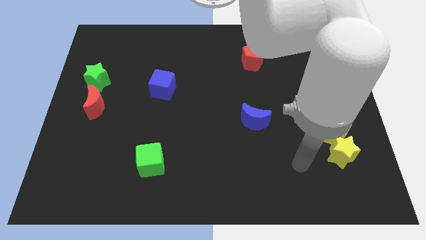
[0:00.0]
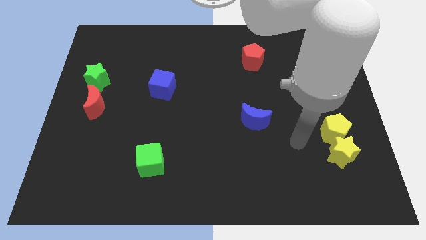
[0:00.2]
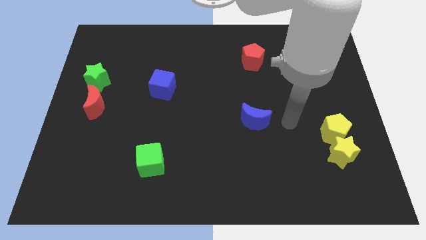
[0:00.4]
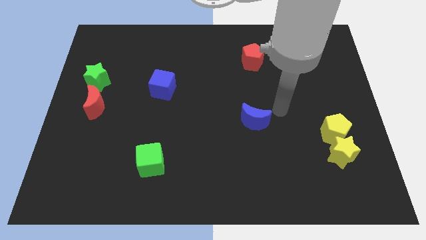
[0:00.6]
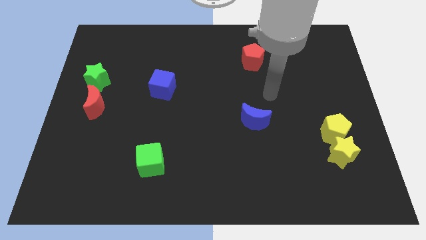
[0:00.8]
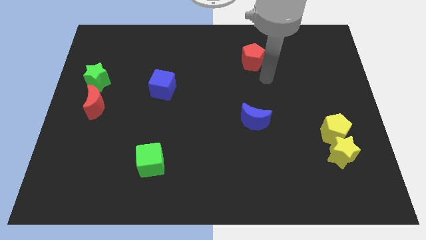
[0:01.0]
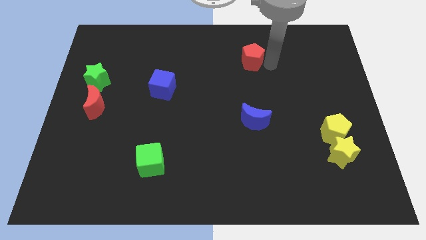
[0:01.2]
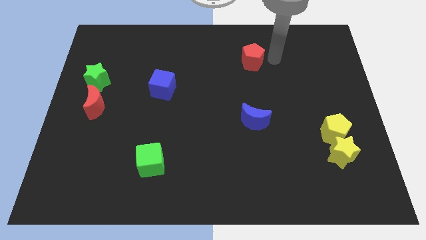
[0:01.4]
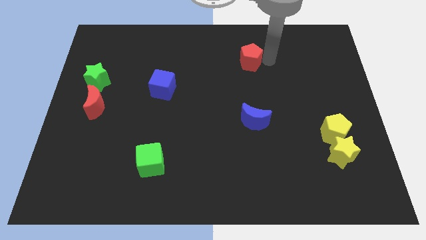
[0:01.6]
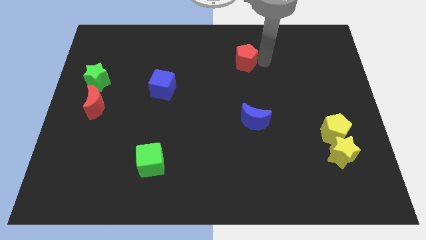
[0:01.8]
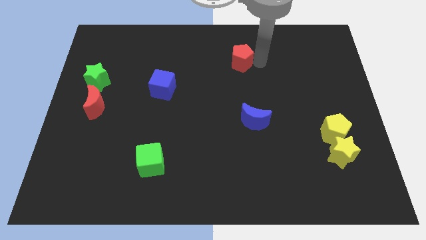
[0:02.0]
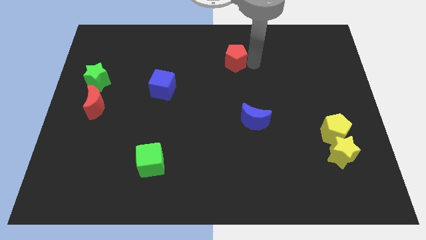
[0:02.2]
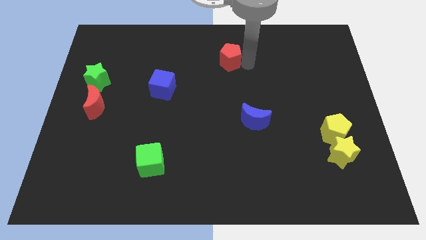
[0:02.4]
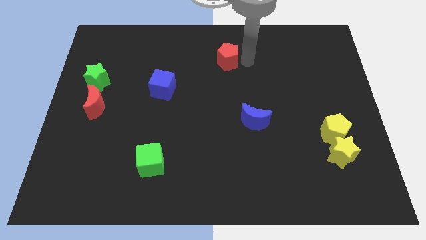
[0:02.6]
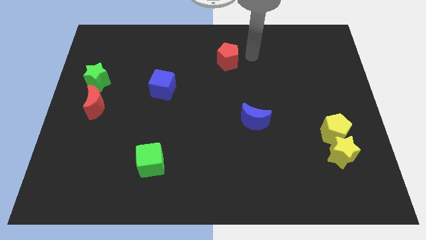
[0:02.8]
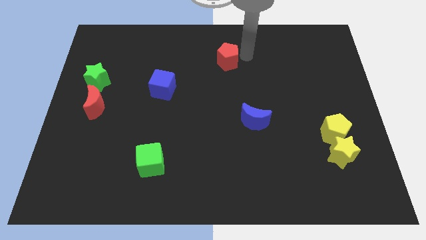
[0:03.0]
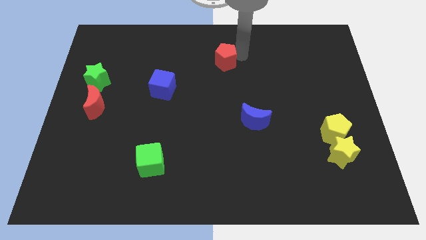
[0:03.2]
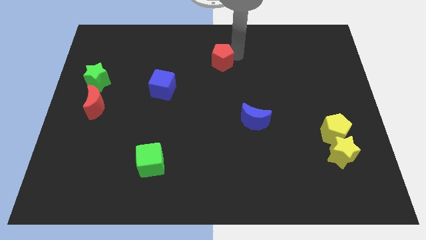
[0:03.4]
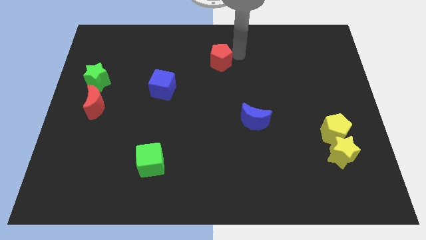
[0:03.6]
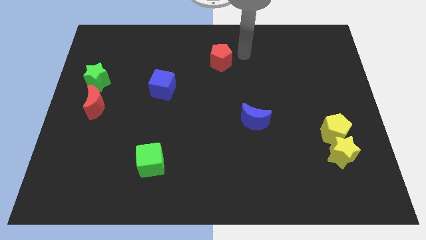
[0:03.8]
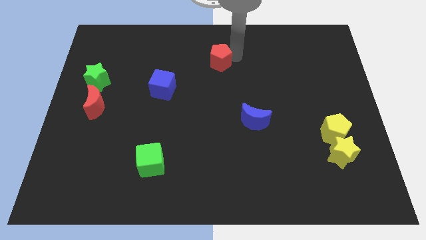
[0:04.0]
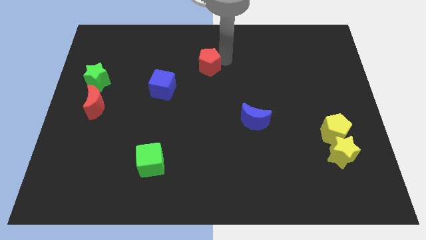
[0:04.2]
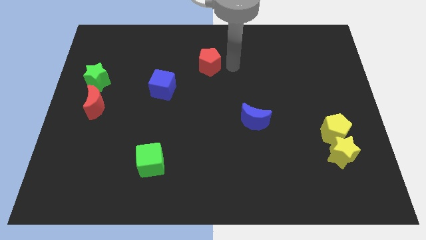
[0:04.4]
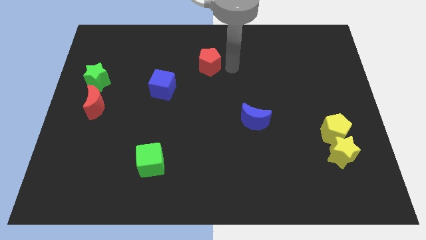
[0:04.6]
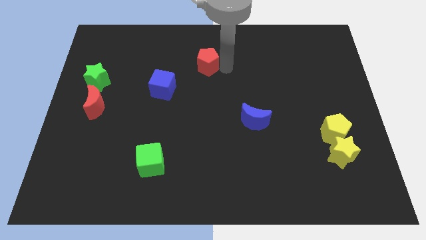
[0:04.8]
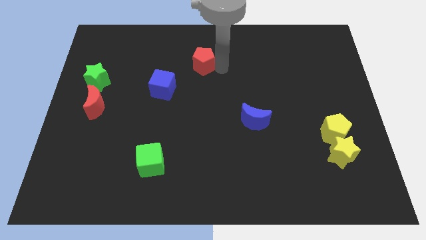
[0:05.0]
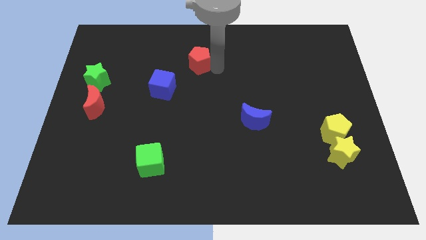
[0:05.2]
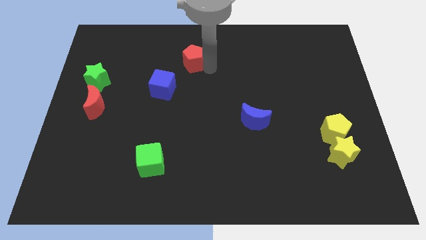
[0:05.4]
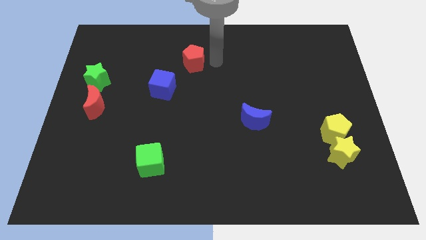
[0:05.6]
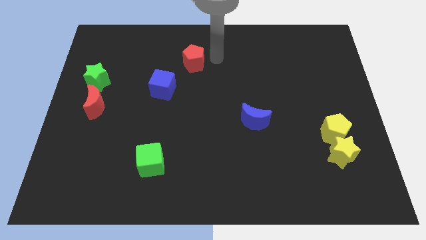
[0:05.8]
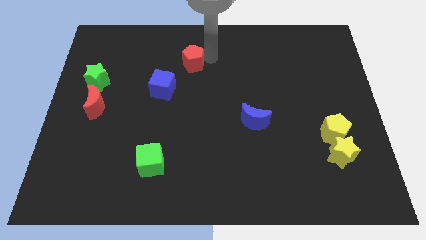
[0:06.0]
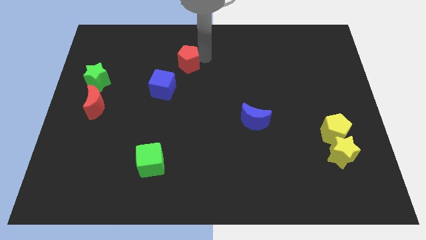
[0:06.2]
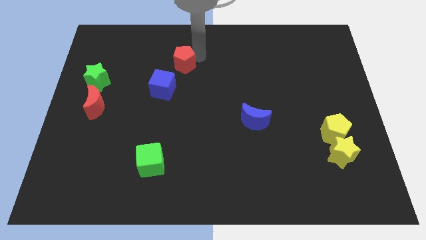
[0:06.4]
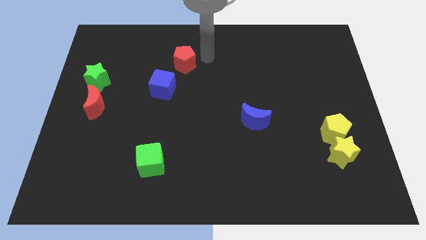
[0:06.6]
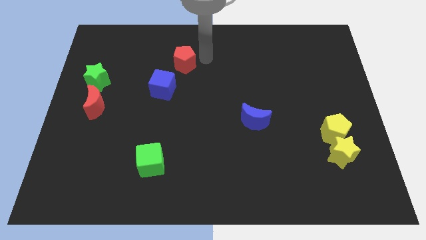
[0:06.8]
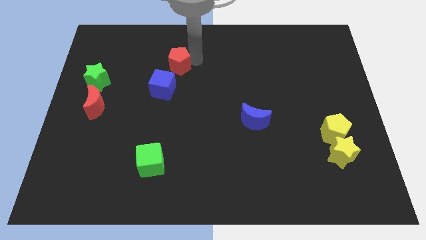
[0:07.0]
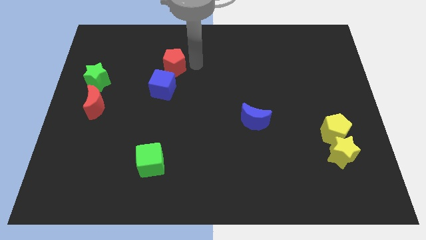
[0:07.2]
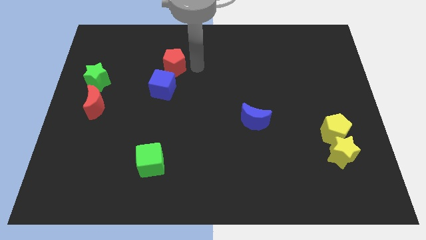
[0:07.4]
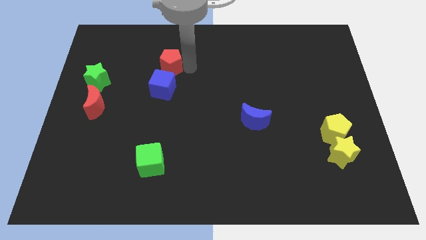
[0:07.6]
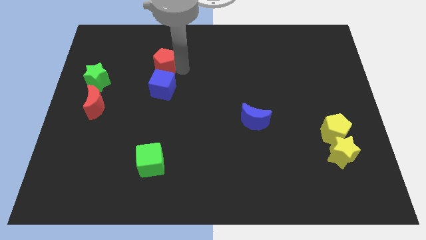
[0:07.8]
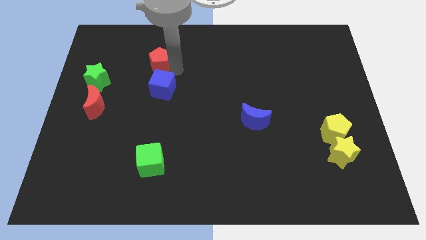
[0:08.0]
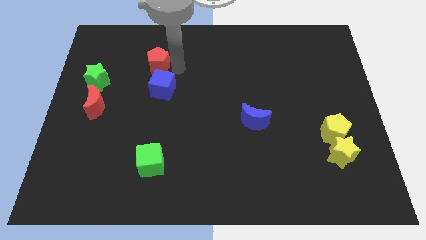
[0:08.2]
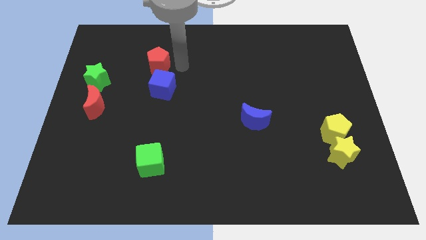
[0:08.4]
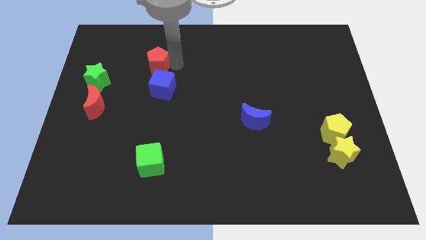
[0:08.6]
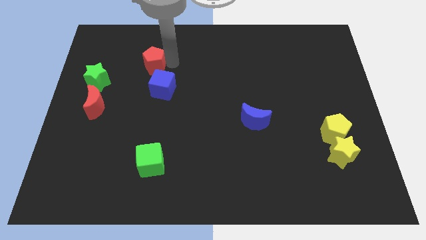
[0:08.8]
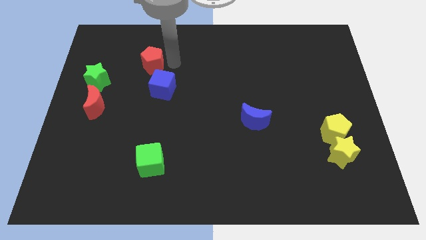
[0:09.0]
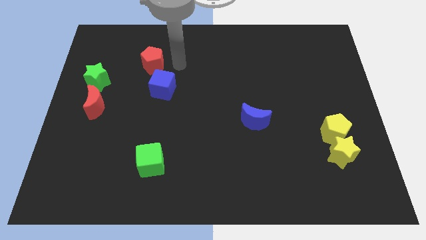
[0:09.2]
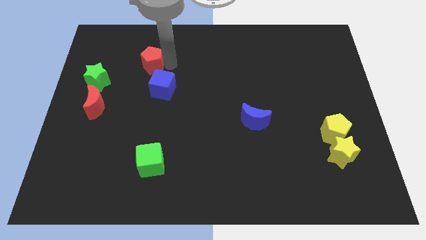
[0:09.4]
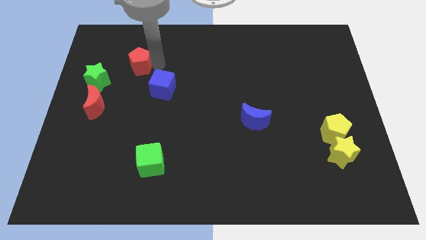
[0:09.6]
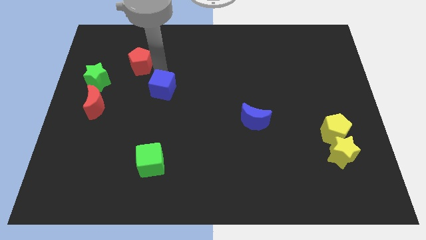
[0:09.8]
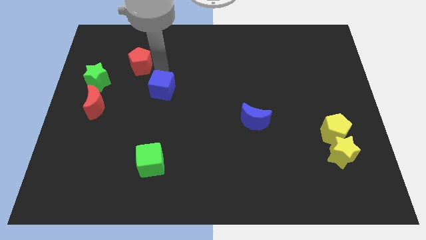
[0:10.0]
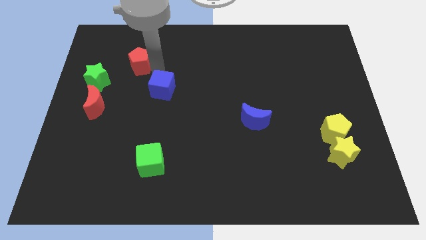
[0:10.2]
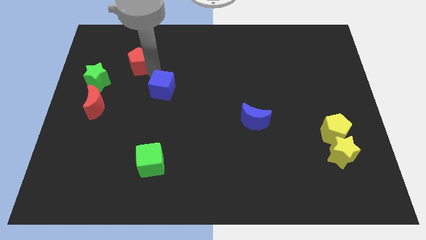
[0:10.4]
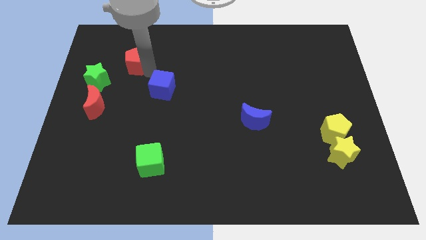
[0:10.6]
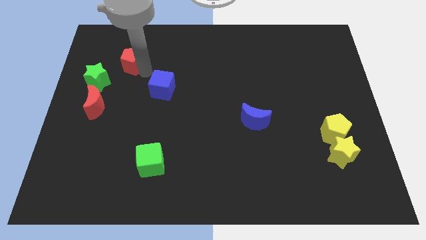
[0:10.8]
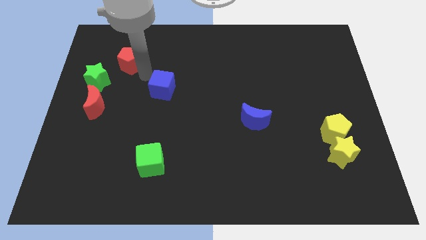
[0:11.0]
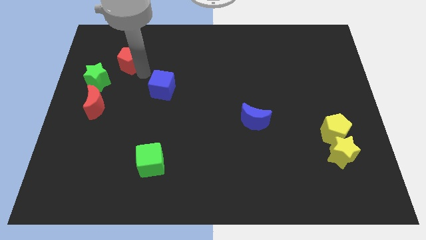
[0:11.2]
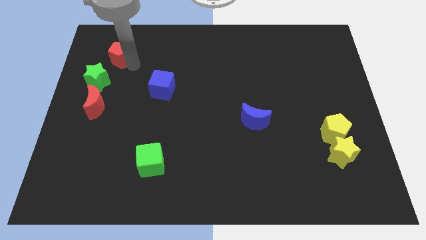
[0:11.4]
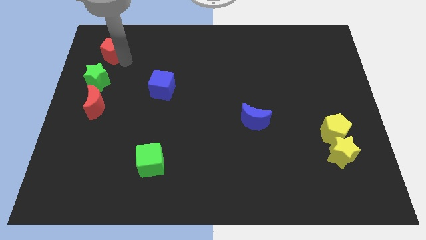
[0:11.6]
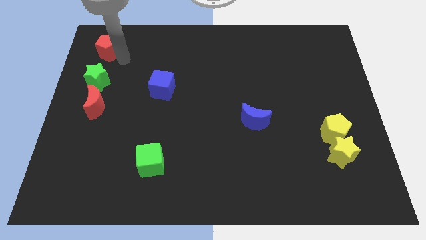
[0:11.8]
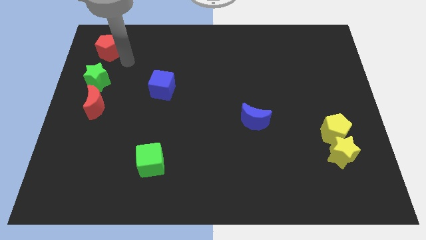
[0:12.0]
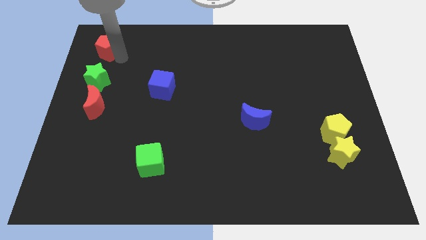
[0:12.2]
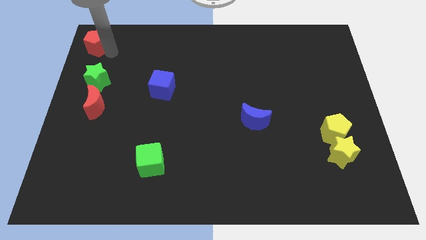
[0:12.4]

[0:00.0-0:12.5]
move the red pentagon to the top left corner
